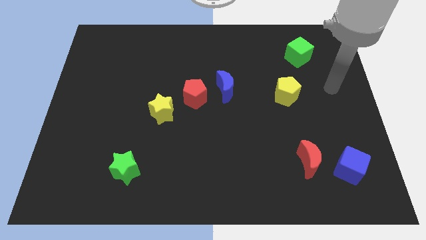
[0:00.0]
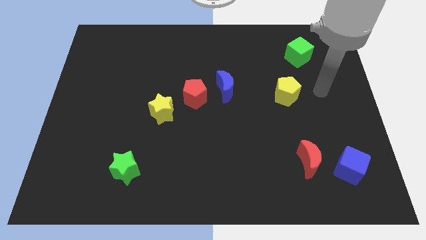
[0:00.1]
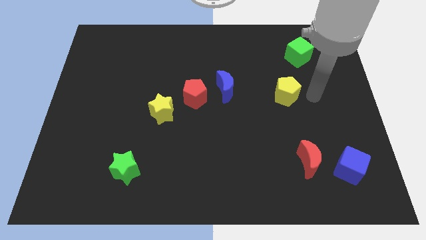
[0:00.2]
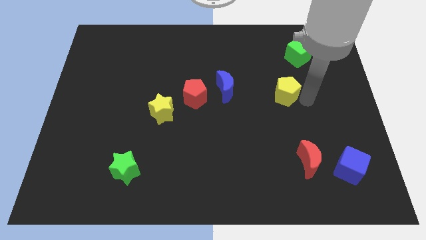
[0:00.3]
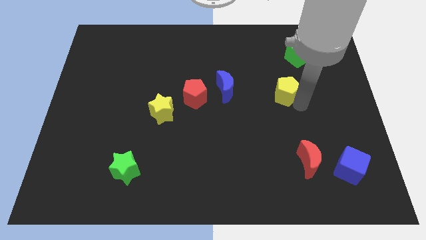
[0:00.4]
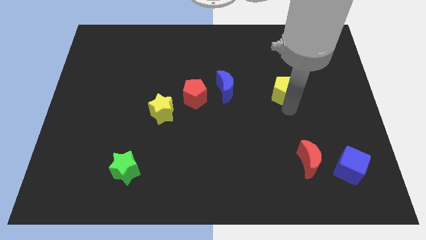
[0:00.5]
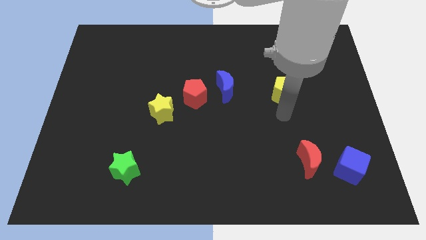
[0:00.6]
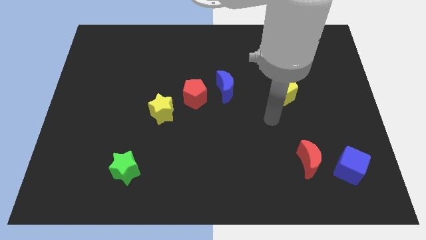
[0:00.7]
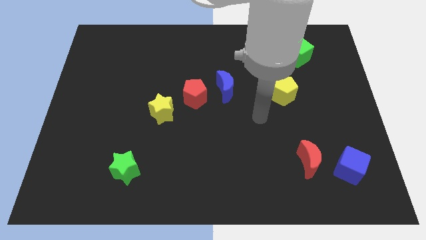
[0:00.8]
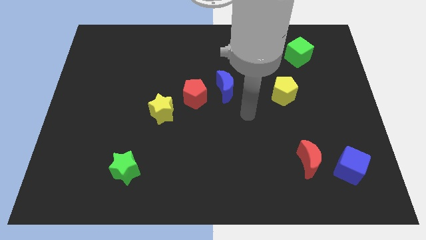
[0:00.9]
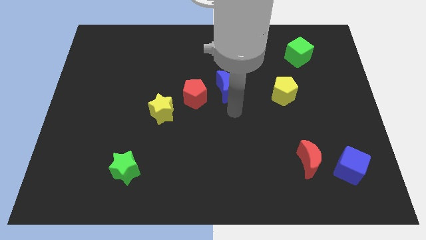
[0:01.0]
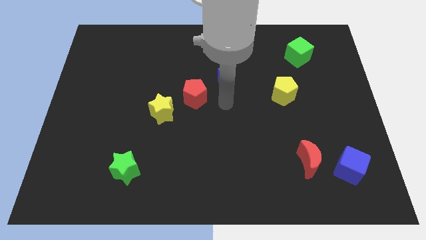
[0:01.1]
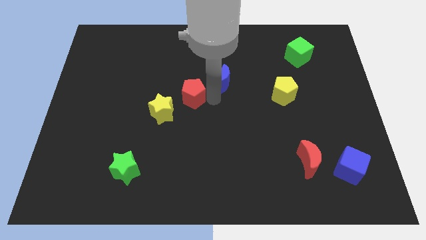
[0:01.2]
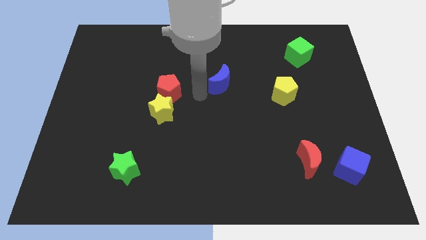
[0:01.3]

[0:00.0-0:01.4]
move the blue moon away from the red pentagon

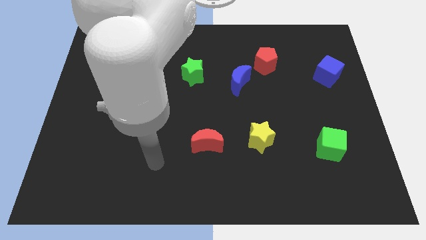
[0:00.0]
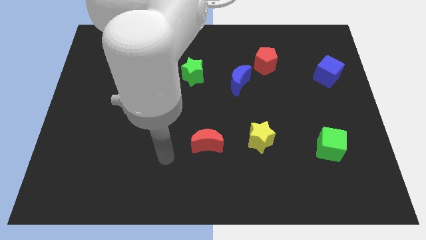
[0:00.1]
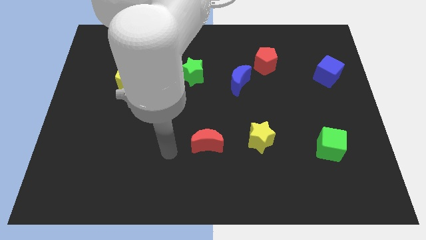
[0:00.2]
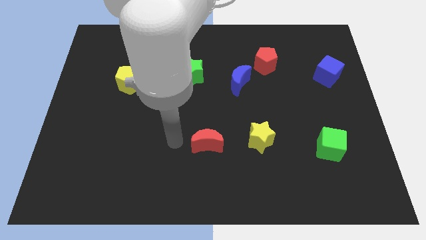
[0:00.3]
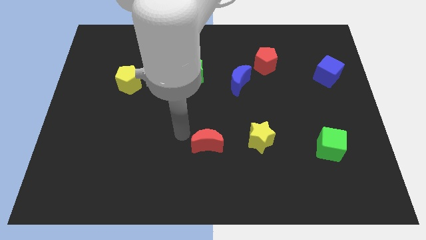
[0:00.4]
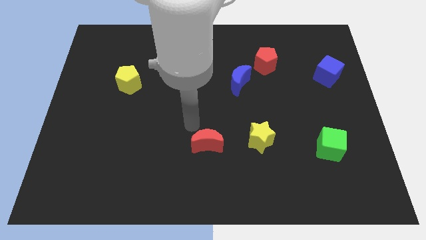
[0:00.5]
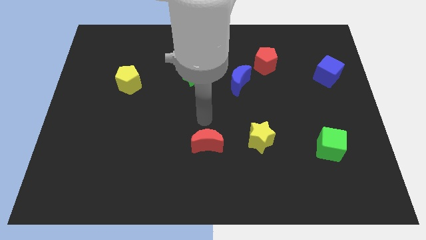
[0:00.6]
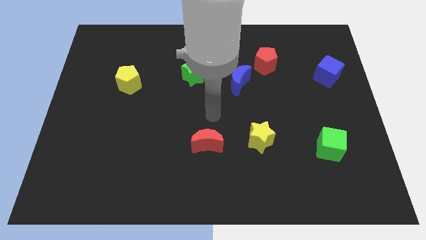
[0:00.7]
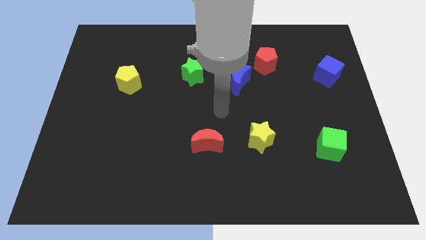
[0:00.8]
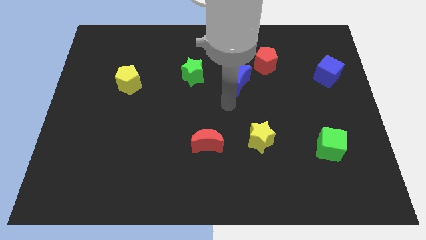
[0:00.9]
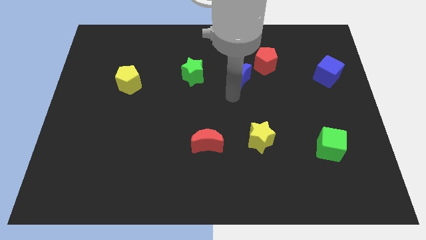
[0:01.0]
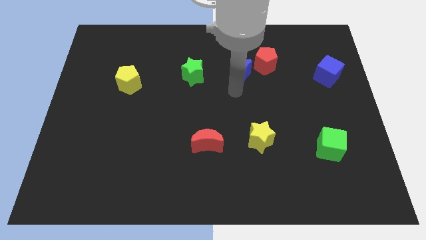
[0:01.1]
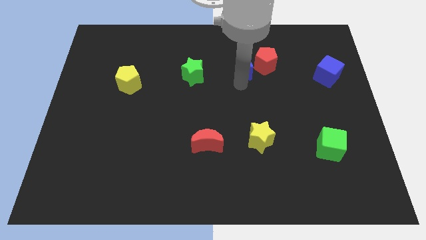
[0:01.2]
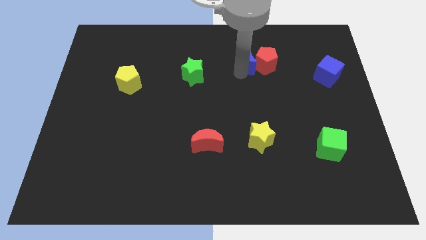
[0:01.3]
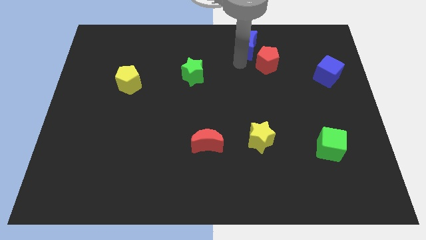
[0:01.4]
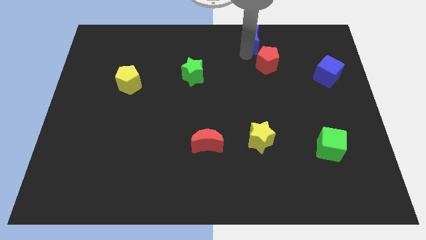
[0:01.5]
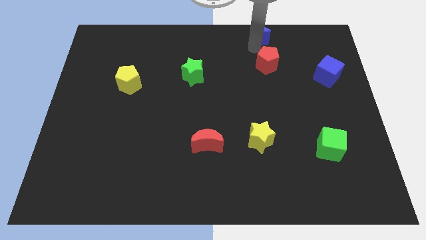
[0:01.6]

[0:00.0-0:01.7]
separate the red pentagon from the blue moon

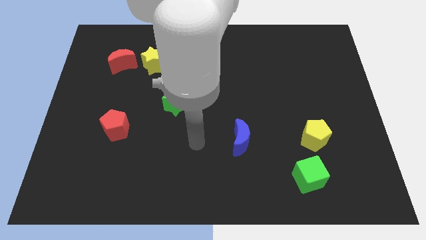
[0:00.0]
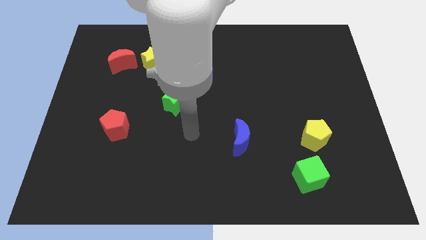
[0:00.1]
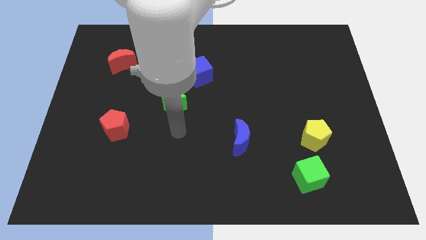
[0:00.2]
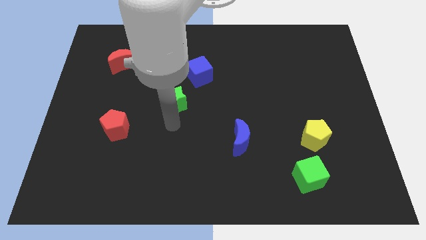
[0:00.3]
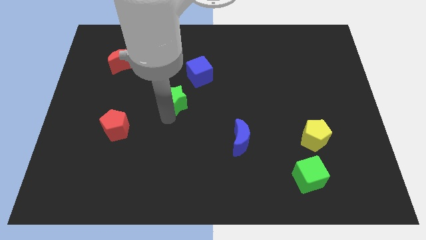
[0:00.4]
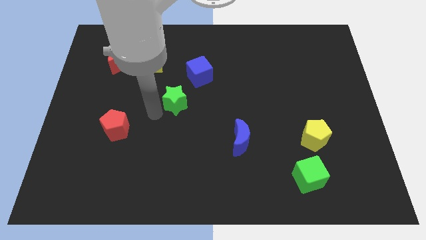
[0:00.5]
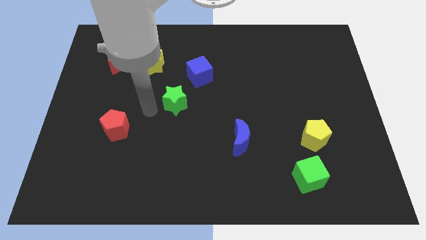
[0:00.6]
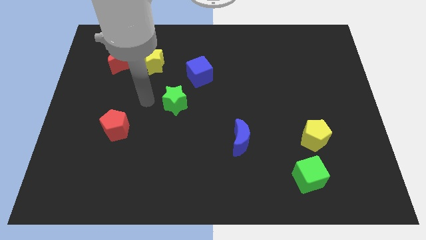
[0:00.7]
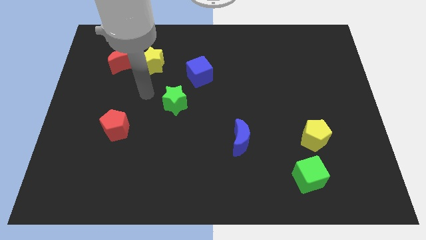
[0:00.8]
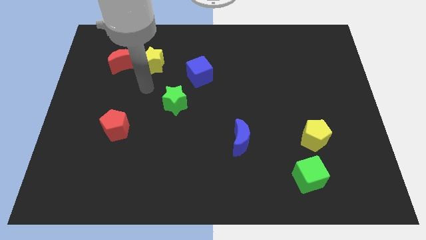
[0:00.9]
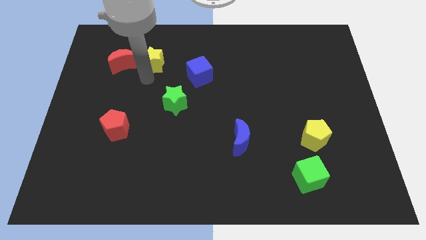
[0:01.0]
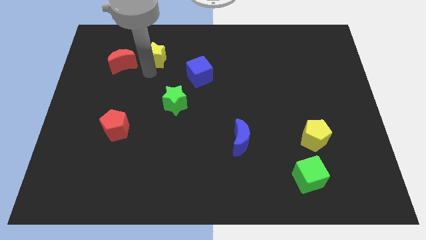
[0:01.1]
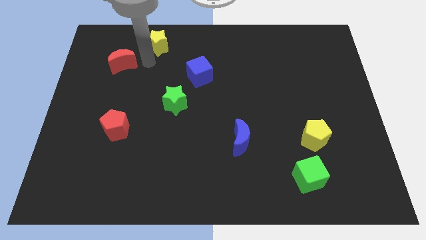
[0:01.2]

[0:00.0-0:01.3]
separate the red moon from the yellow star

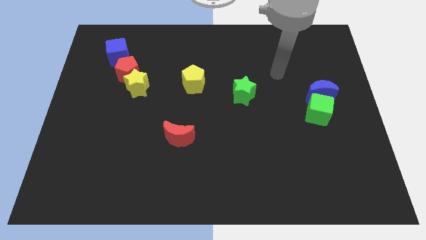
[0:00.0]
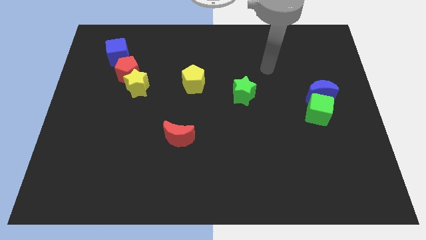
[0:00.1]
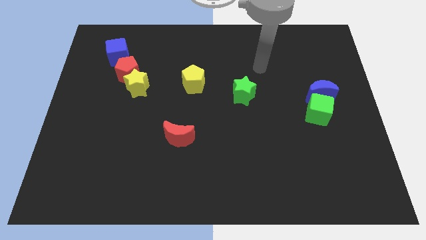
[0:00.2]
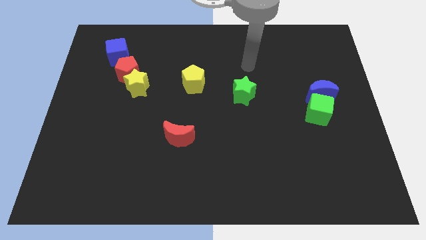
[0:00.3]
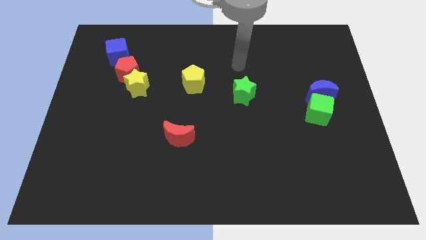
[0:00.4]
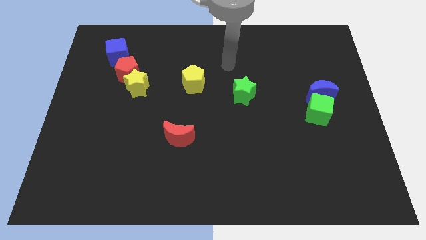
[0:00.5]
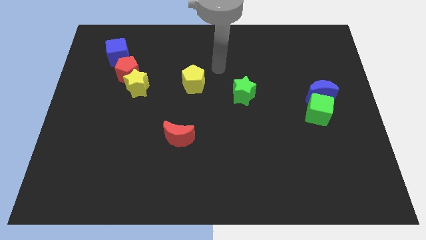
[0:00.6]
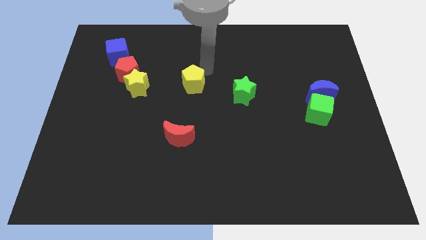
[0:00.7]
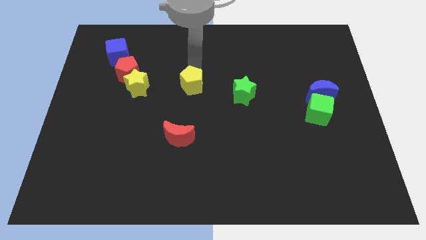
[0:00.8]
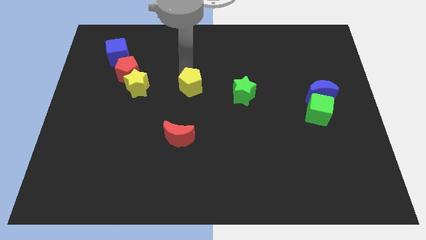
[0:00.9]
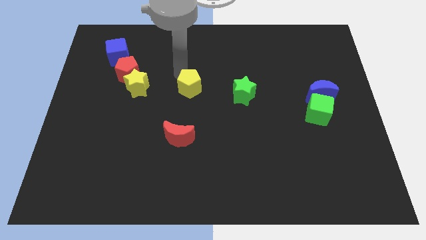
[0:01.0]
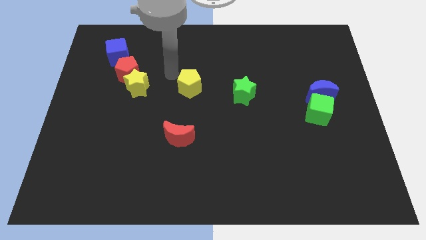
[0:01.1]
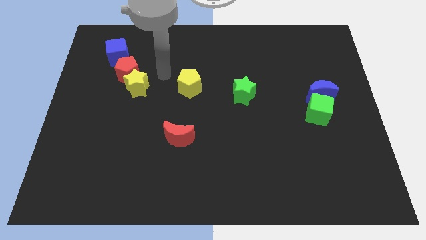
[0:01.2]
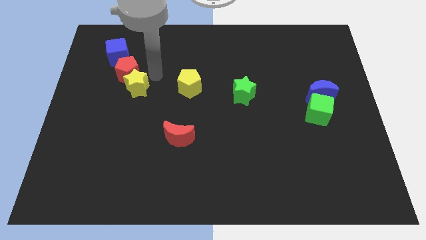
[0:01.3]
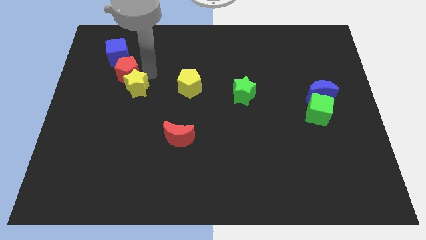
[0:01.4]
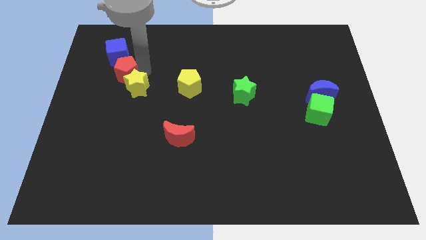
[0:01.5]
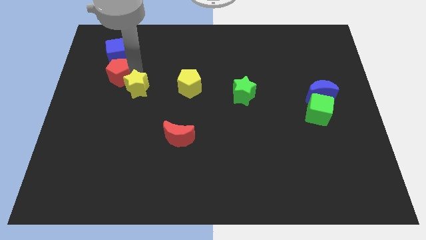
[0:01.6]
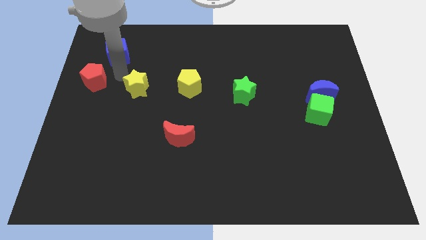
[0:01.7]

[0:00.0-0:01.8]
move the yellow star away from the red pentagon

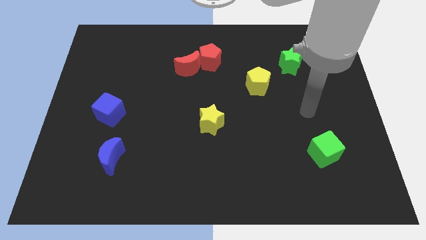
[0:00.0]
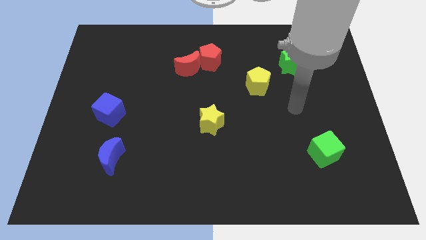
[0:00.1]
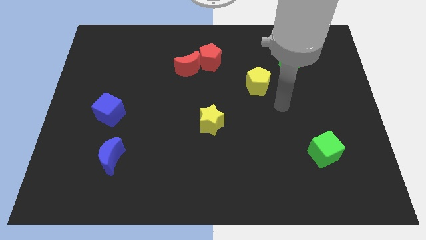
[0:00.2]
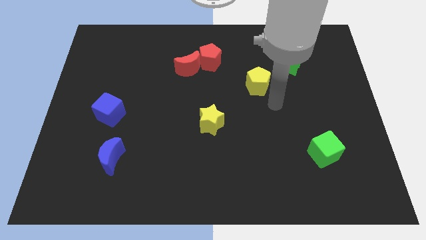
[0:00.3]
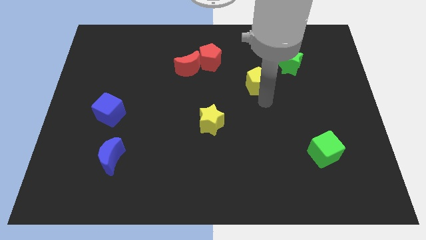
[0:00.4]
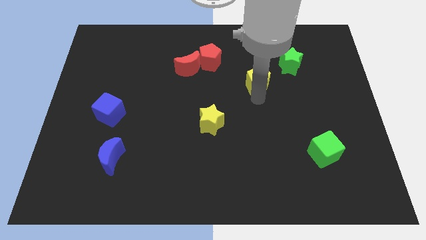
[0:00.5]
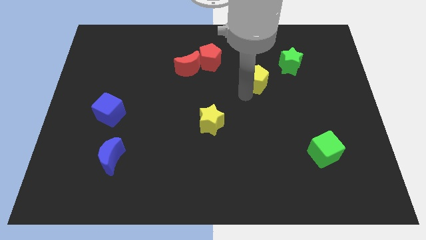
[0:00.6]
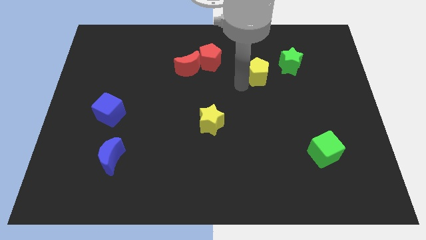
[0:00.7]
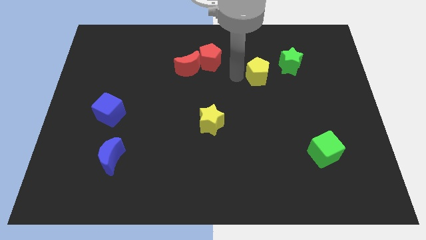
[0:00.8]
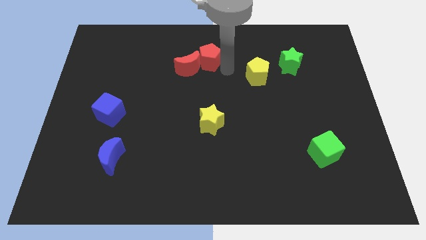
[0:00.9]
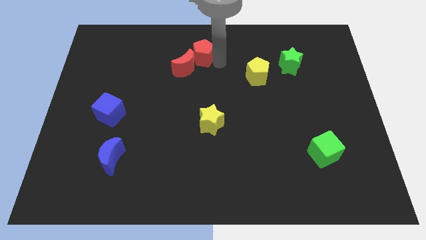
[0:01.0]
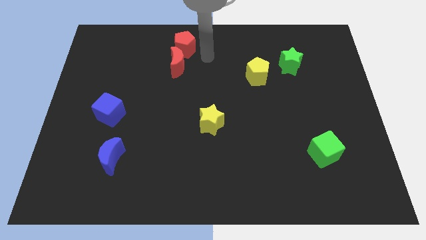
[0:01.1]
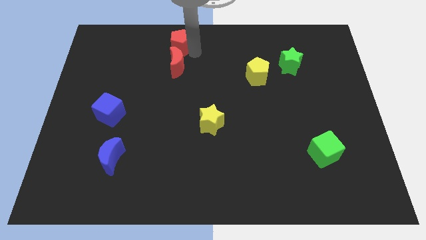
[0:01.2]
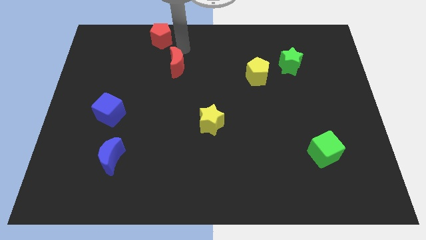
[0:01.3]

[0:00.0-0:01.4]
separate the red moon from the red pentagon

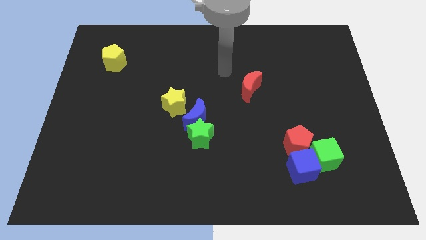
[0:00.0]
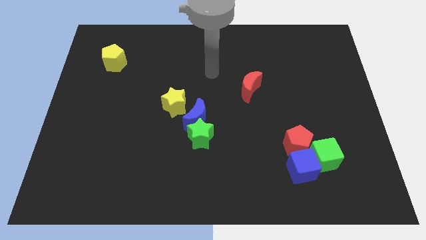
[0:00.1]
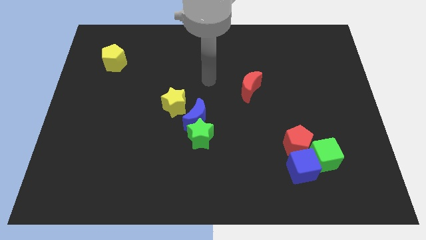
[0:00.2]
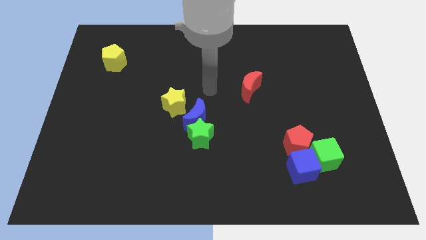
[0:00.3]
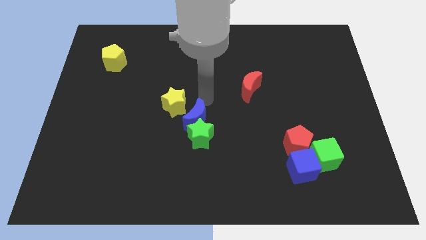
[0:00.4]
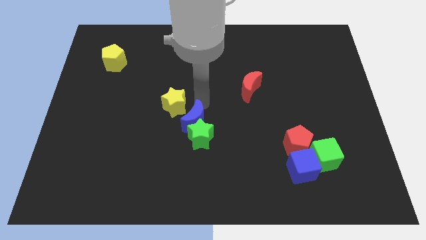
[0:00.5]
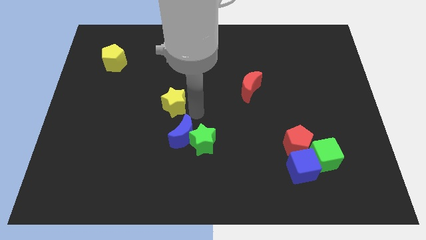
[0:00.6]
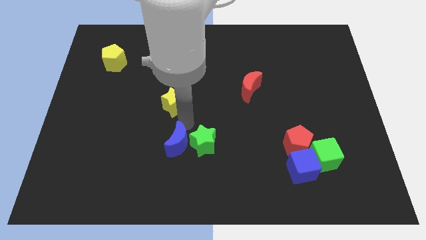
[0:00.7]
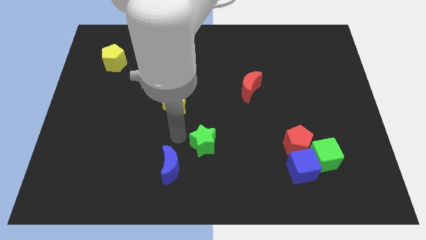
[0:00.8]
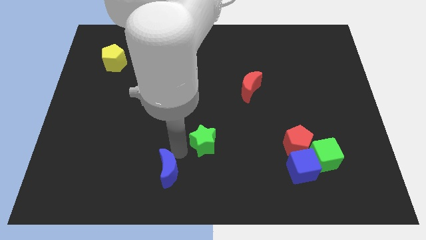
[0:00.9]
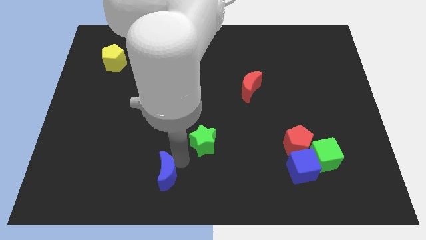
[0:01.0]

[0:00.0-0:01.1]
pull the green star apart from the blue moon

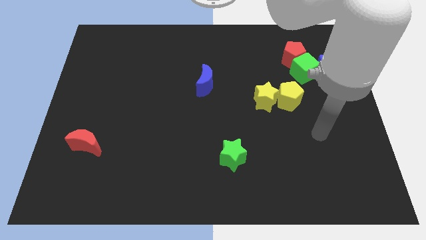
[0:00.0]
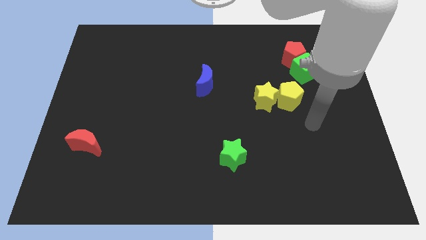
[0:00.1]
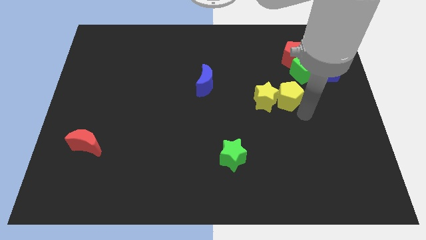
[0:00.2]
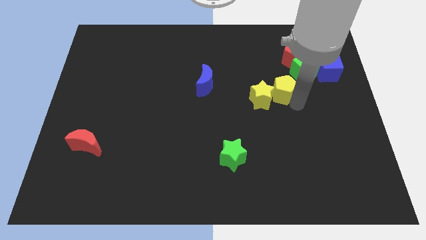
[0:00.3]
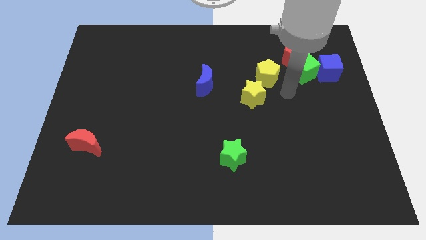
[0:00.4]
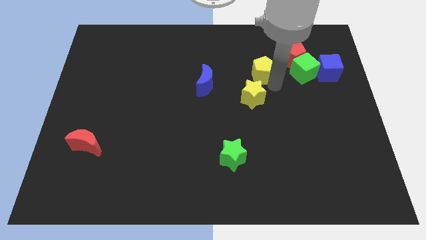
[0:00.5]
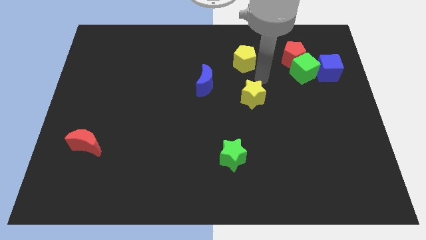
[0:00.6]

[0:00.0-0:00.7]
separate the yellow star from the yellow pentagon
